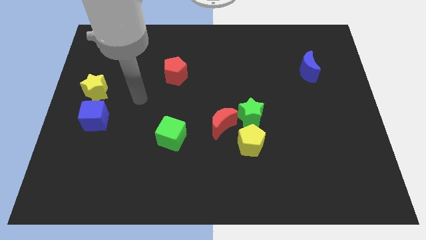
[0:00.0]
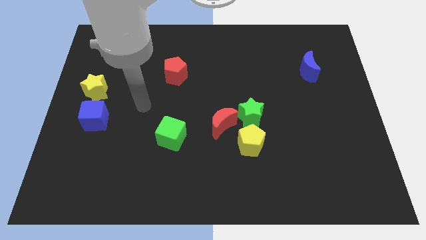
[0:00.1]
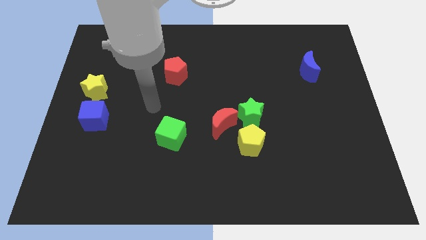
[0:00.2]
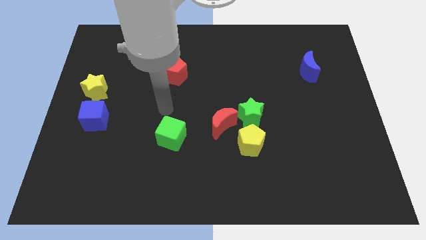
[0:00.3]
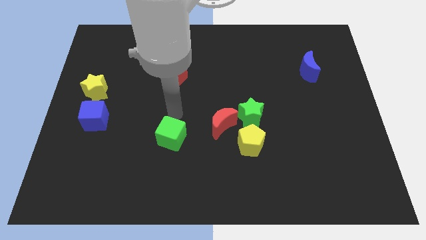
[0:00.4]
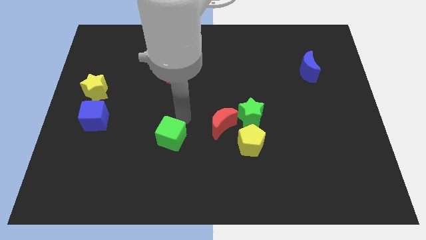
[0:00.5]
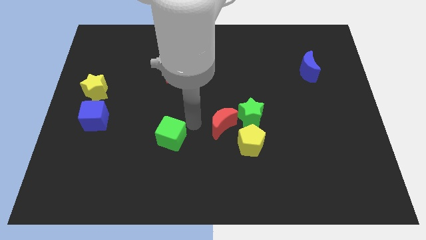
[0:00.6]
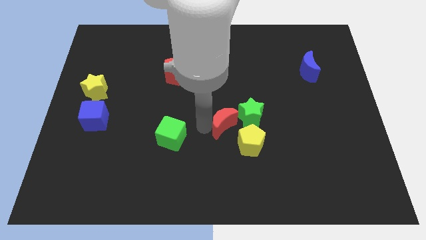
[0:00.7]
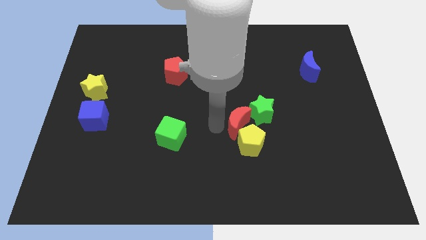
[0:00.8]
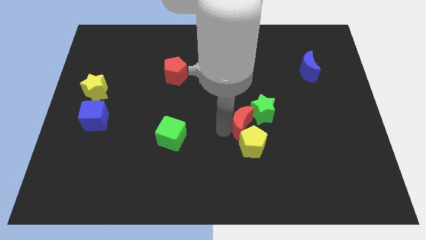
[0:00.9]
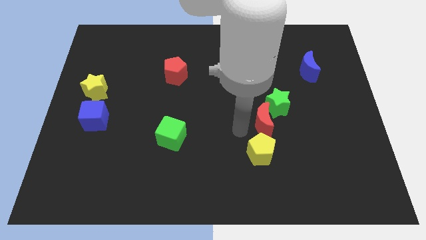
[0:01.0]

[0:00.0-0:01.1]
separate the green star from the red moon and yellow pentagon

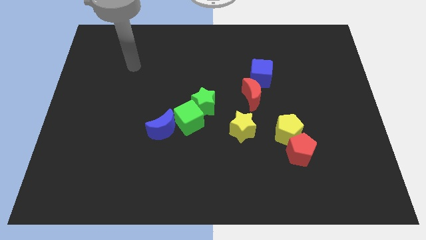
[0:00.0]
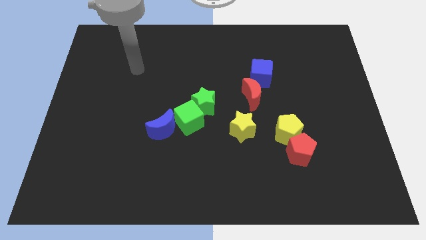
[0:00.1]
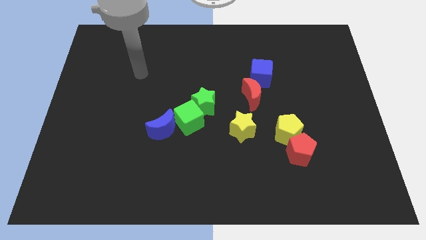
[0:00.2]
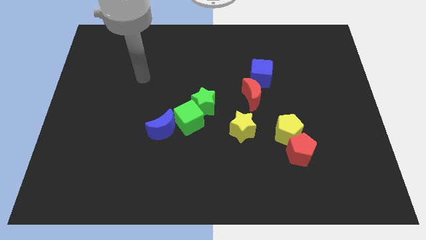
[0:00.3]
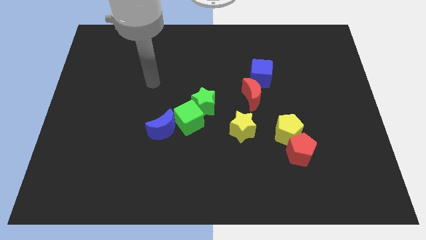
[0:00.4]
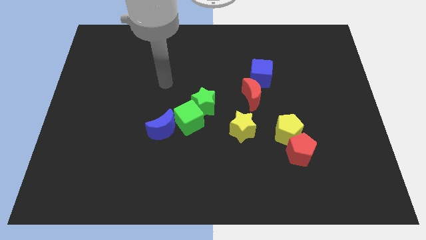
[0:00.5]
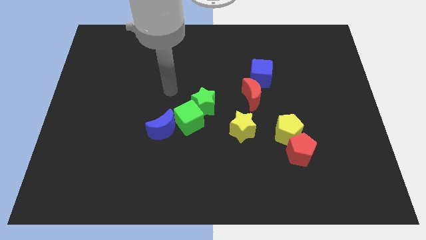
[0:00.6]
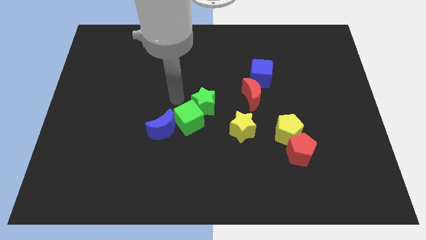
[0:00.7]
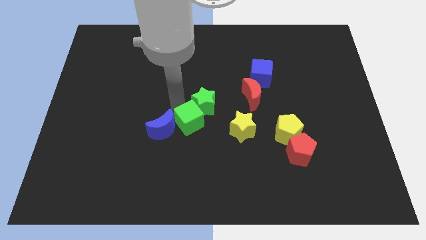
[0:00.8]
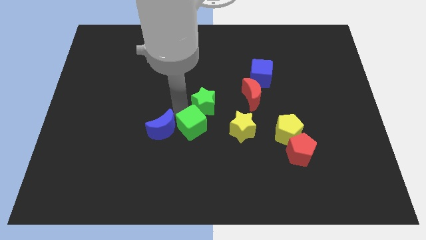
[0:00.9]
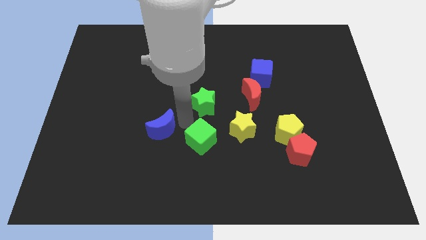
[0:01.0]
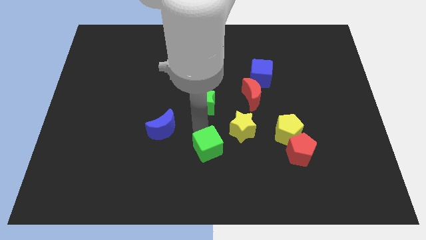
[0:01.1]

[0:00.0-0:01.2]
move the green star away from the green cube

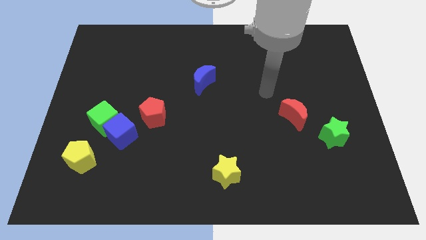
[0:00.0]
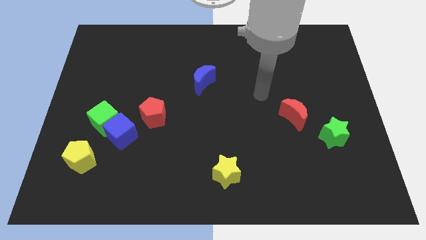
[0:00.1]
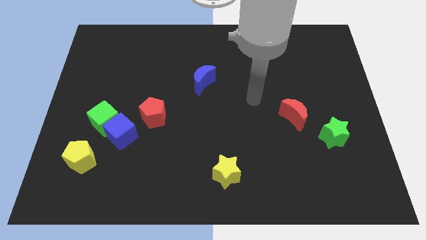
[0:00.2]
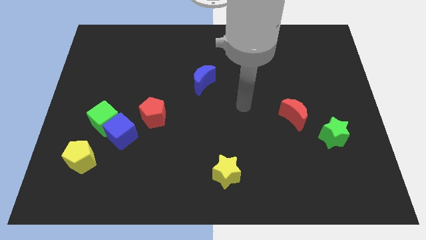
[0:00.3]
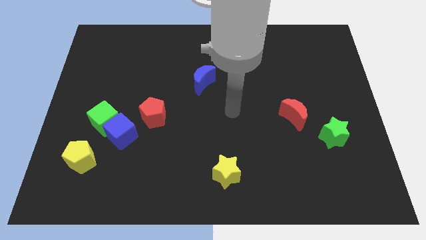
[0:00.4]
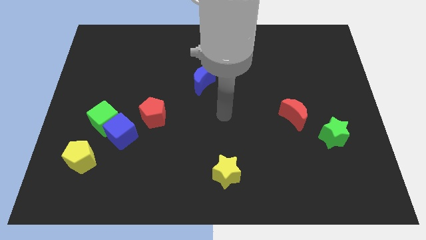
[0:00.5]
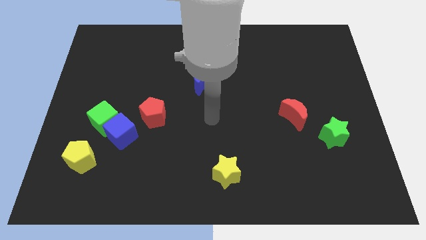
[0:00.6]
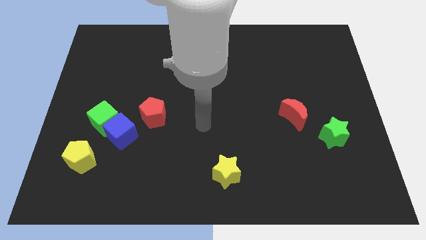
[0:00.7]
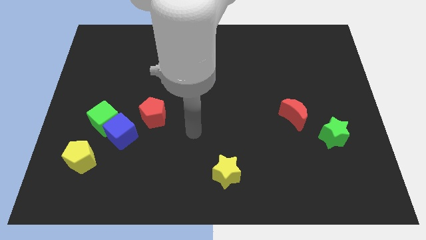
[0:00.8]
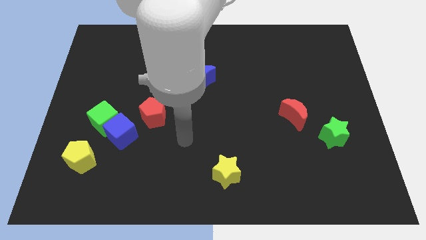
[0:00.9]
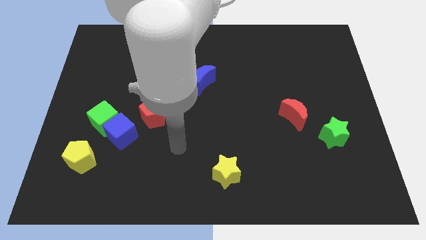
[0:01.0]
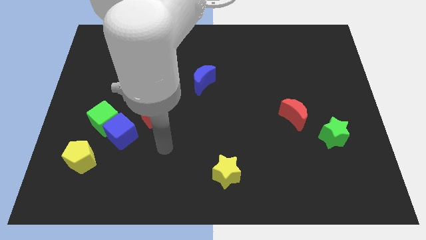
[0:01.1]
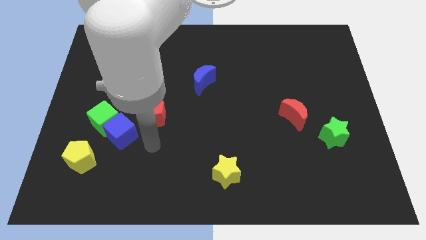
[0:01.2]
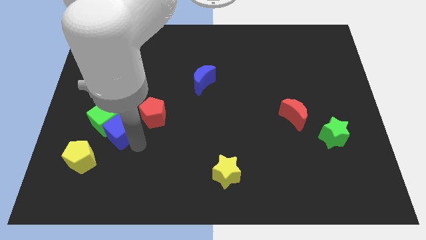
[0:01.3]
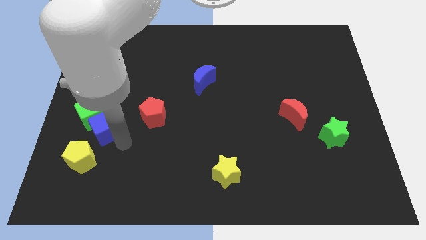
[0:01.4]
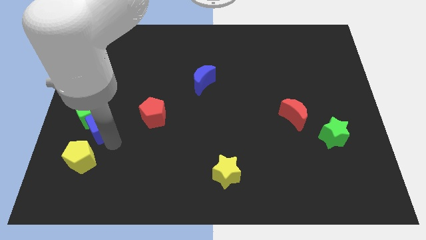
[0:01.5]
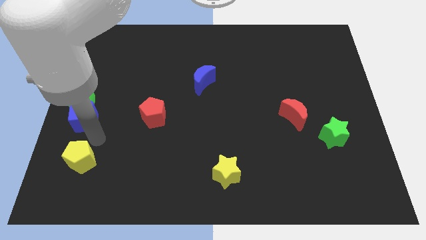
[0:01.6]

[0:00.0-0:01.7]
separate the green cube from the blue cube and yellow pentagon

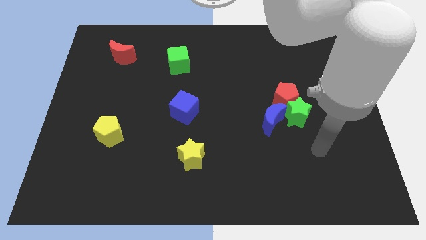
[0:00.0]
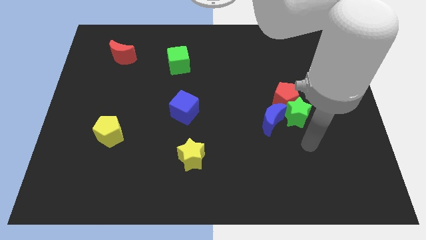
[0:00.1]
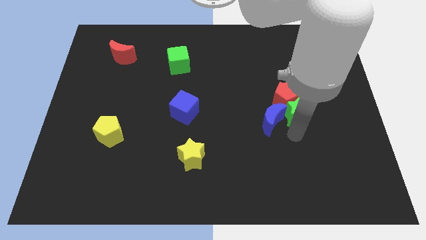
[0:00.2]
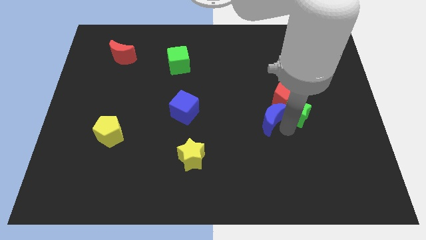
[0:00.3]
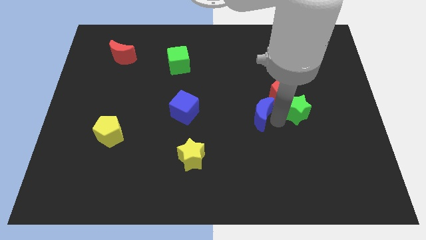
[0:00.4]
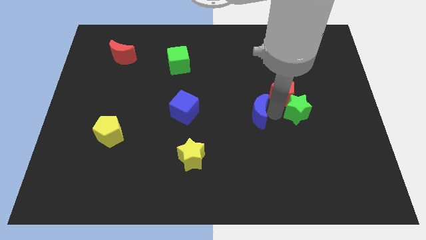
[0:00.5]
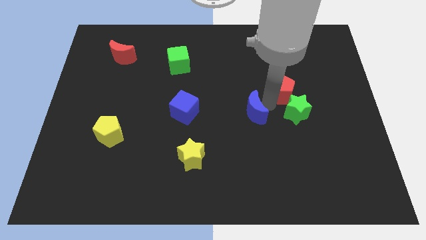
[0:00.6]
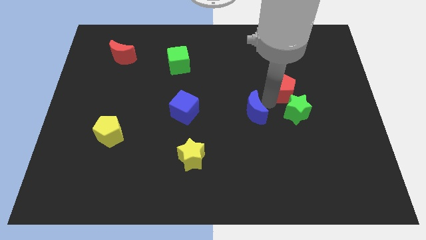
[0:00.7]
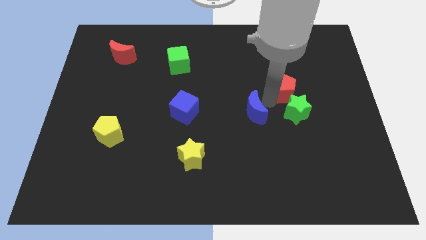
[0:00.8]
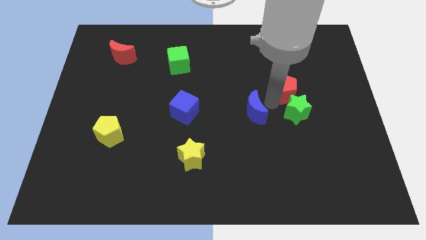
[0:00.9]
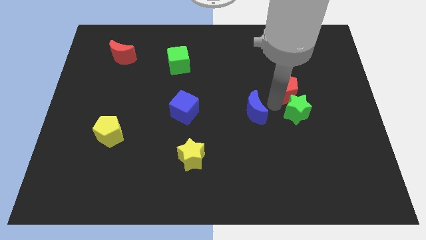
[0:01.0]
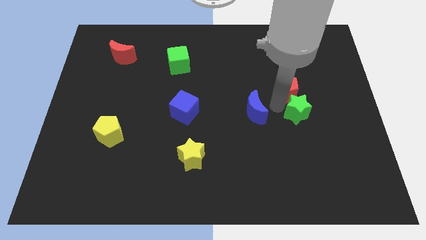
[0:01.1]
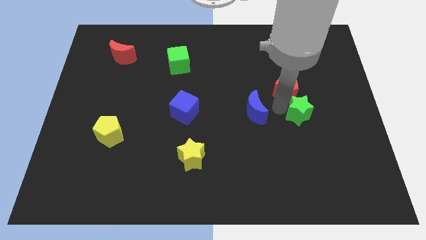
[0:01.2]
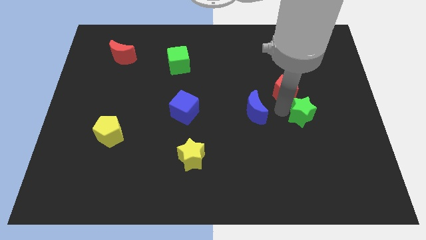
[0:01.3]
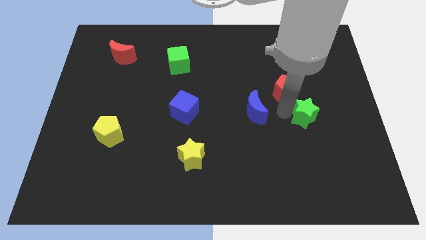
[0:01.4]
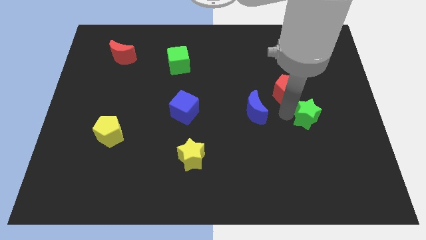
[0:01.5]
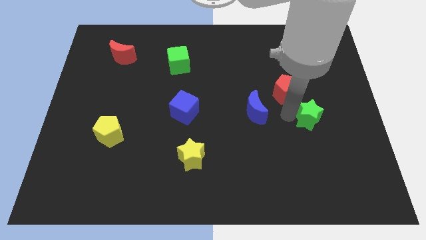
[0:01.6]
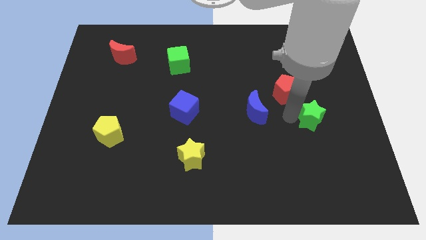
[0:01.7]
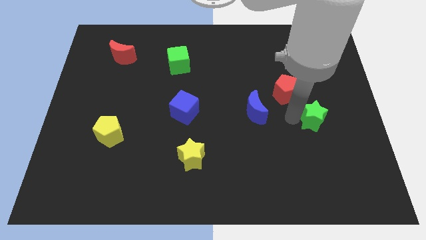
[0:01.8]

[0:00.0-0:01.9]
separate the green star from the red pentagon and blue moon

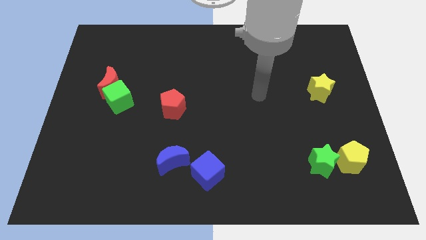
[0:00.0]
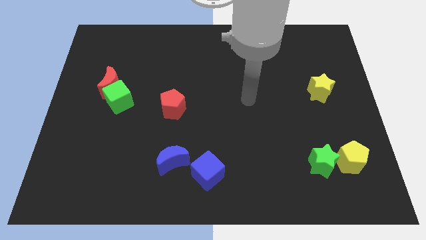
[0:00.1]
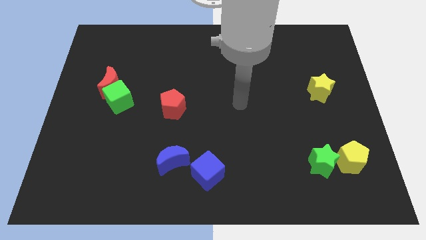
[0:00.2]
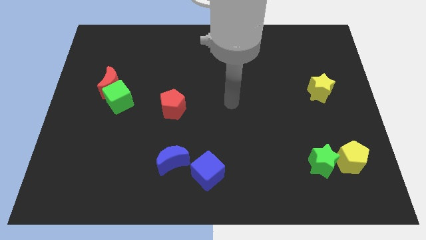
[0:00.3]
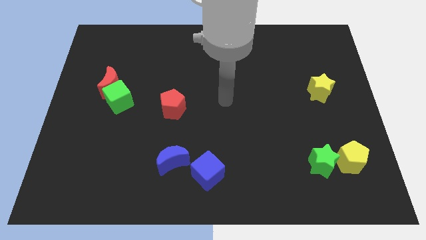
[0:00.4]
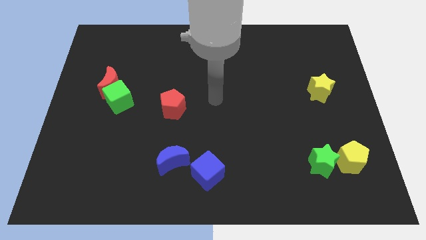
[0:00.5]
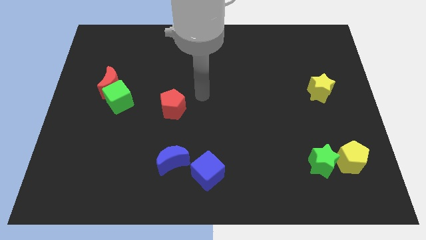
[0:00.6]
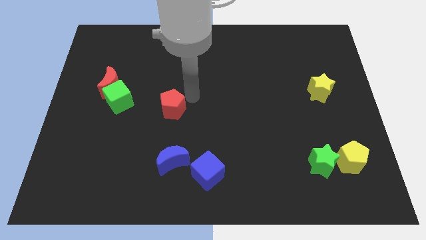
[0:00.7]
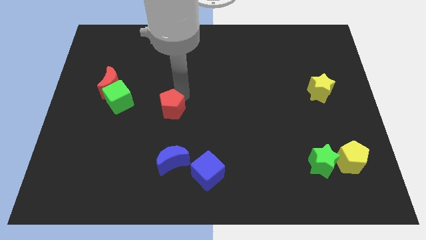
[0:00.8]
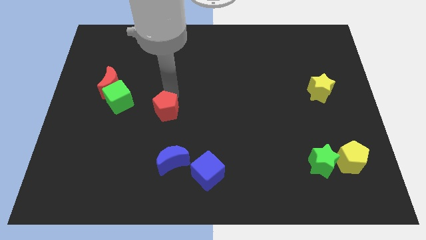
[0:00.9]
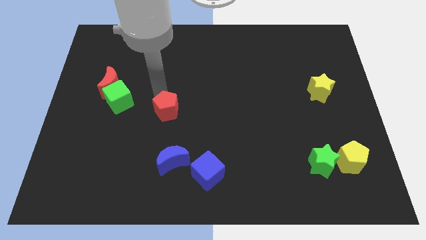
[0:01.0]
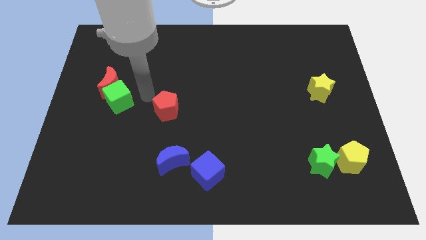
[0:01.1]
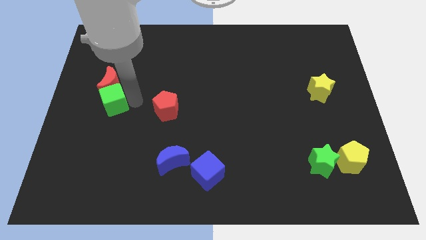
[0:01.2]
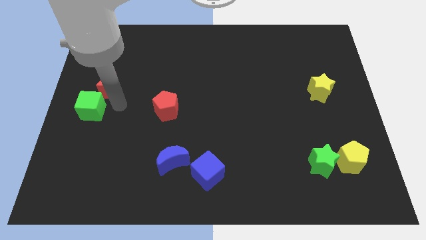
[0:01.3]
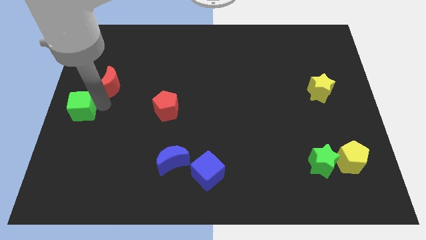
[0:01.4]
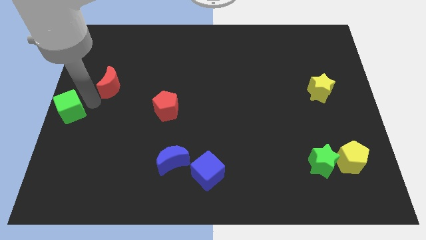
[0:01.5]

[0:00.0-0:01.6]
separate the red moon from the green cube

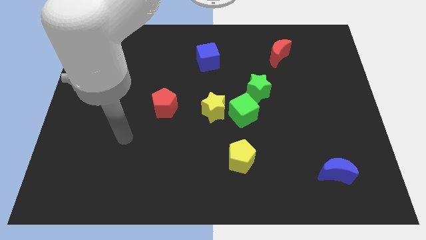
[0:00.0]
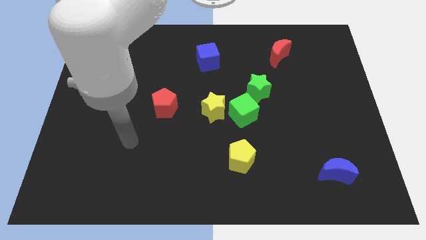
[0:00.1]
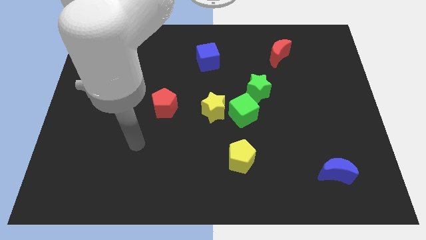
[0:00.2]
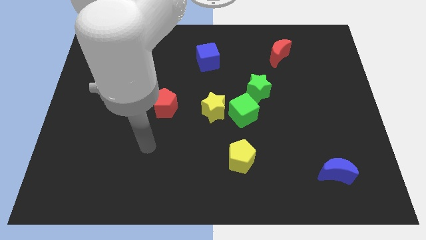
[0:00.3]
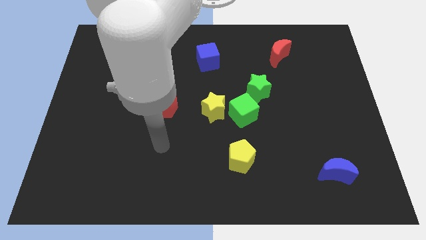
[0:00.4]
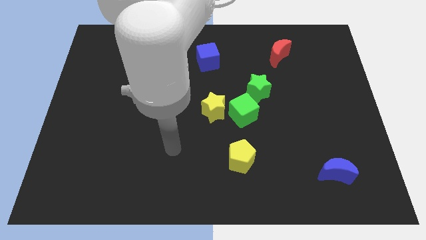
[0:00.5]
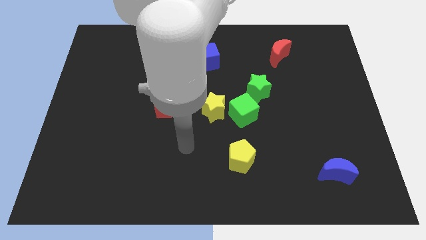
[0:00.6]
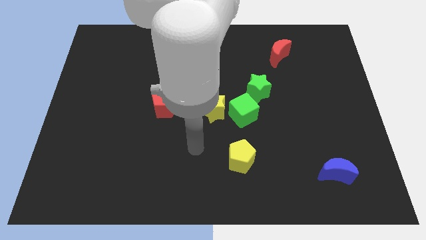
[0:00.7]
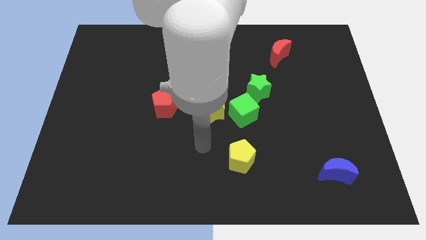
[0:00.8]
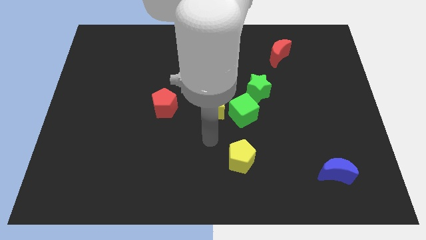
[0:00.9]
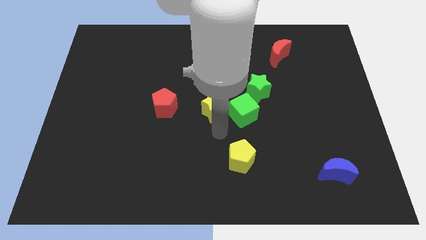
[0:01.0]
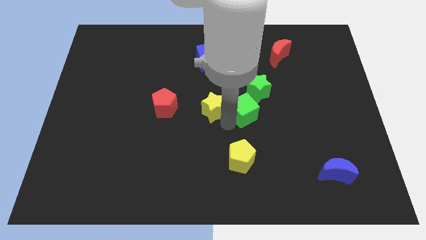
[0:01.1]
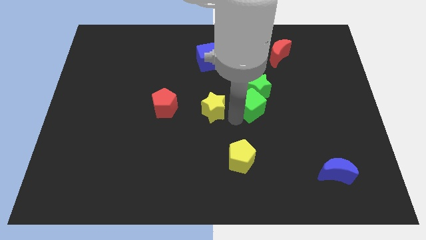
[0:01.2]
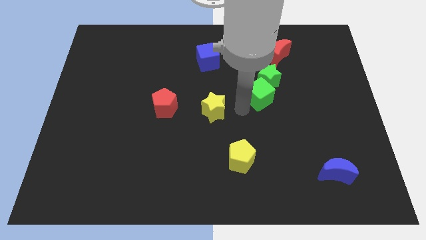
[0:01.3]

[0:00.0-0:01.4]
separate the yellow star from the green cube

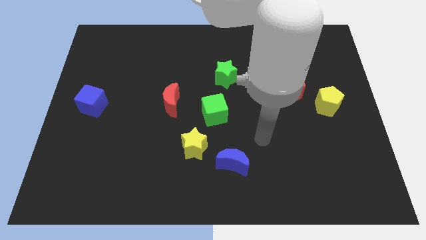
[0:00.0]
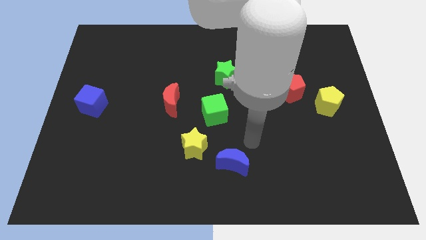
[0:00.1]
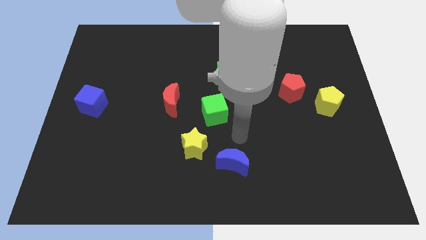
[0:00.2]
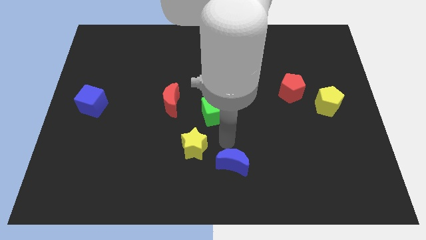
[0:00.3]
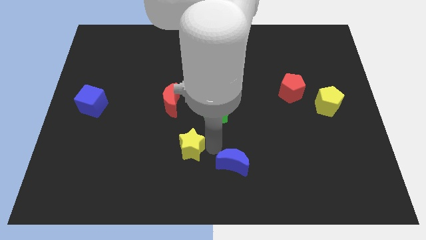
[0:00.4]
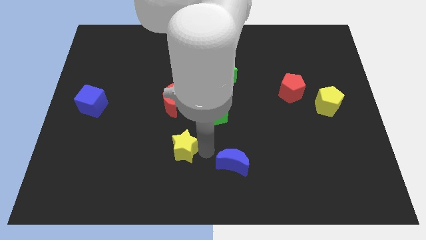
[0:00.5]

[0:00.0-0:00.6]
separate the blue moon from the yellow star

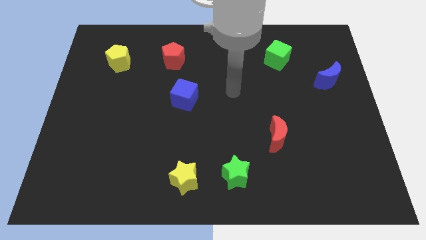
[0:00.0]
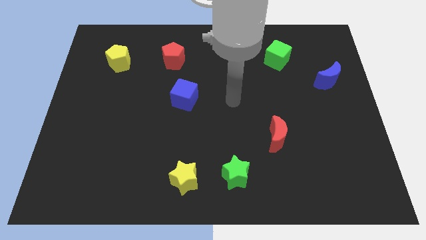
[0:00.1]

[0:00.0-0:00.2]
separate the green star from the yellow star
